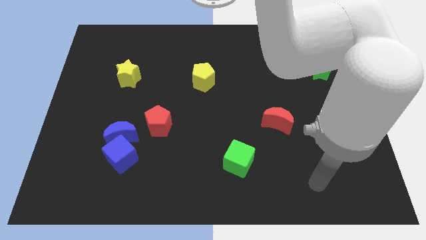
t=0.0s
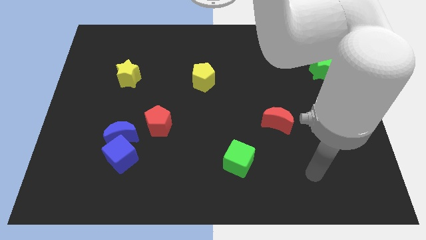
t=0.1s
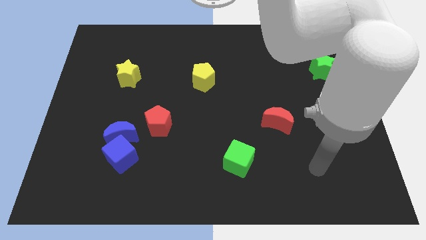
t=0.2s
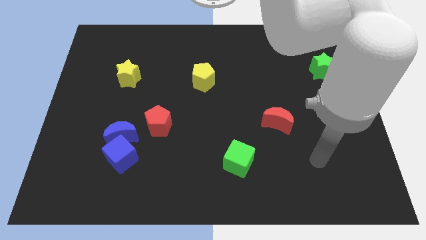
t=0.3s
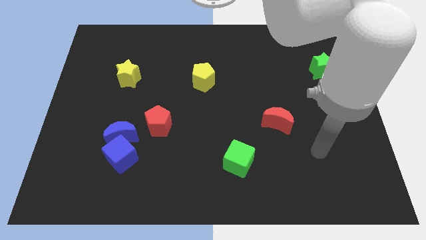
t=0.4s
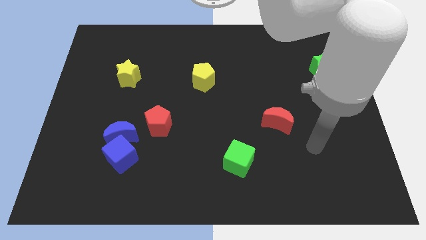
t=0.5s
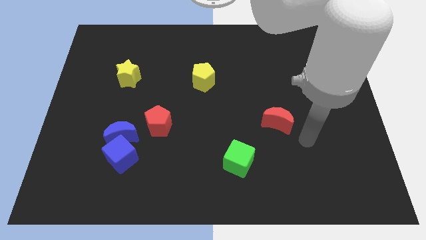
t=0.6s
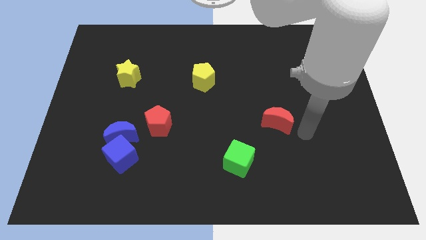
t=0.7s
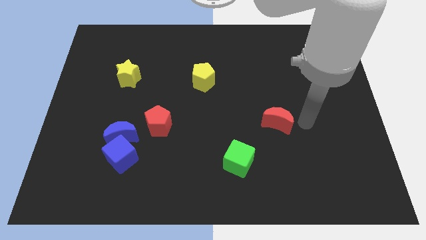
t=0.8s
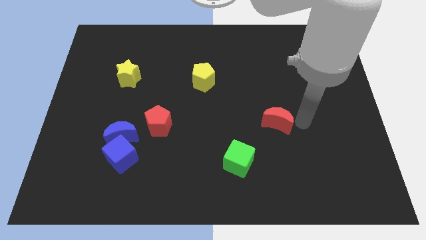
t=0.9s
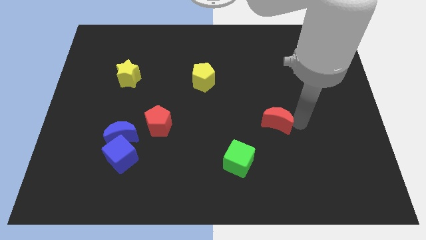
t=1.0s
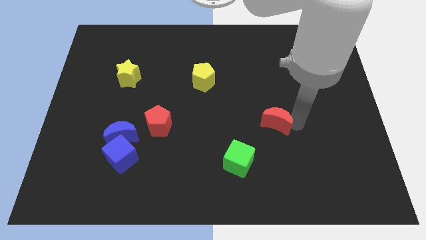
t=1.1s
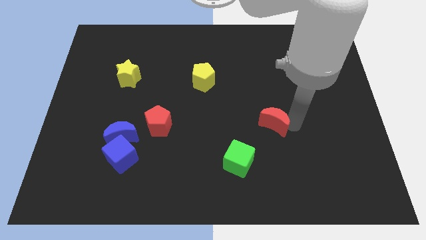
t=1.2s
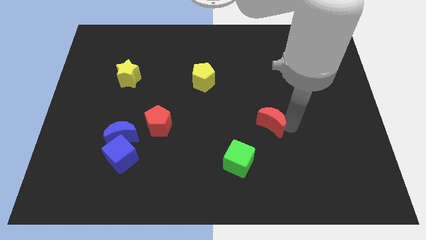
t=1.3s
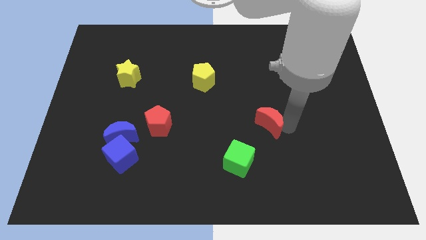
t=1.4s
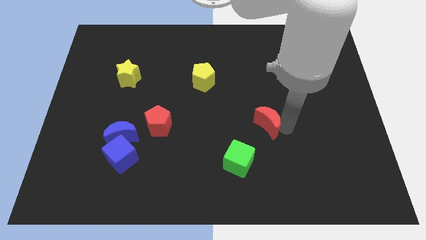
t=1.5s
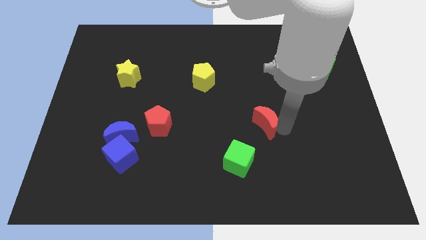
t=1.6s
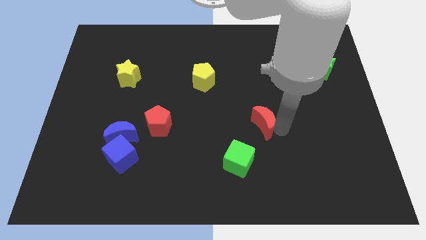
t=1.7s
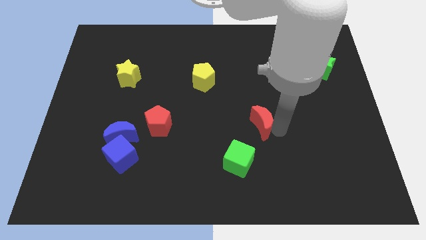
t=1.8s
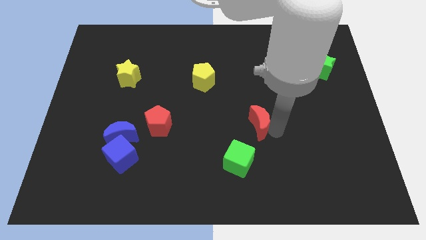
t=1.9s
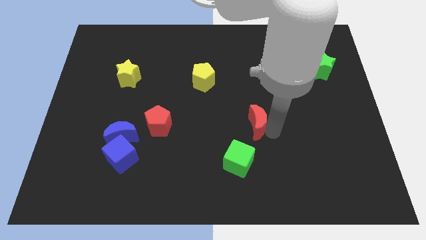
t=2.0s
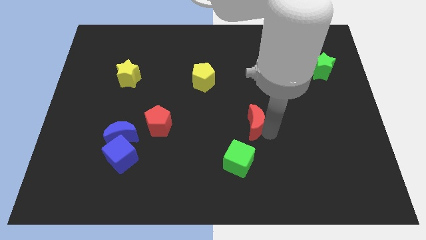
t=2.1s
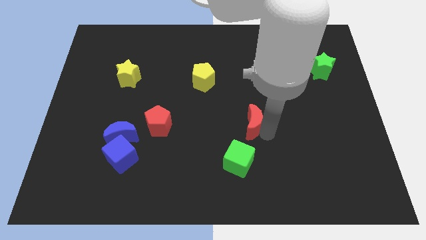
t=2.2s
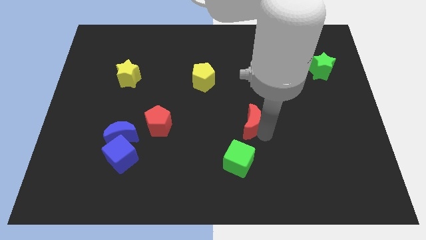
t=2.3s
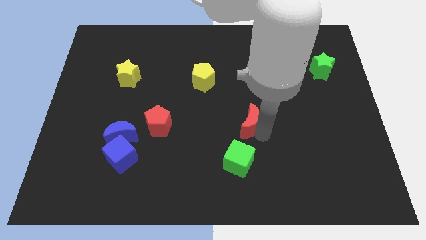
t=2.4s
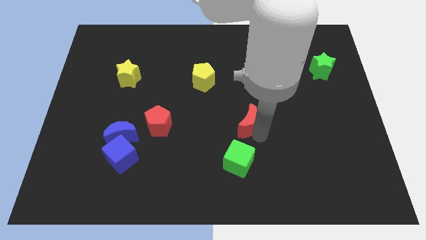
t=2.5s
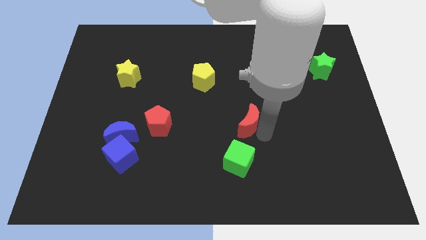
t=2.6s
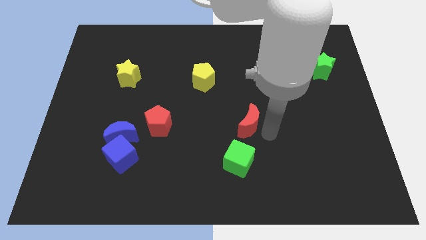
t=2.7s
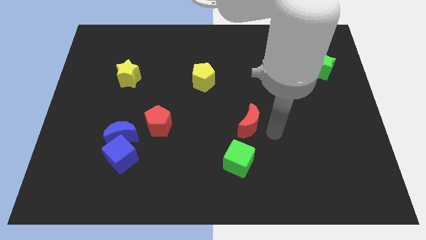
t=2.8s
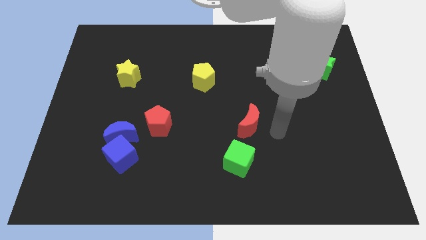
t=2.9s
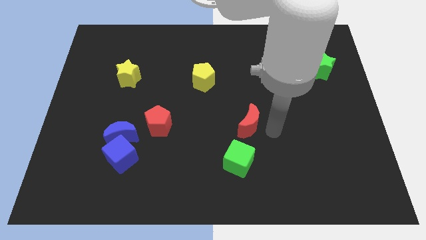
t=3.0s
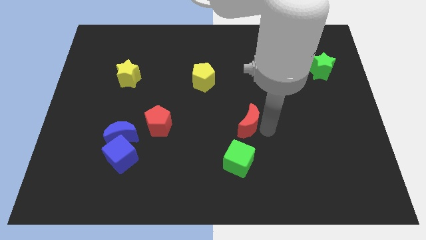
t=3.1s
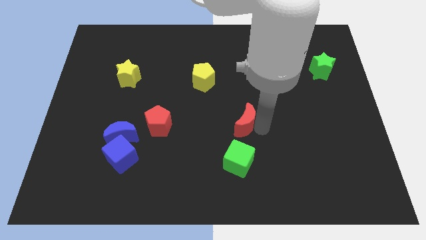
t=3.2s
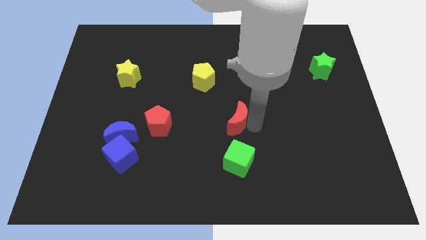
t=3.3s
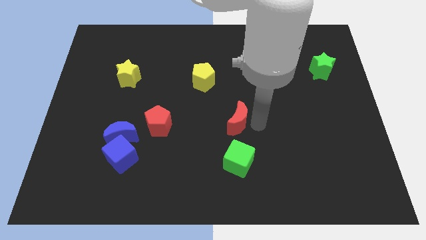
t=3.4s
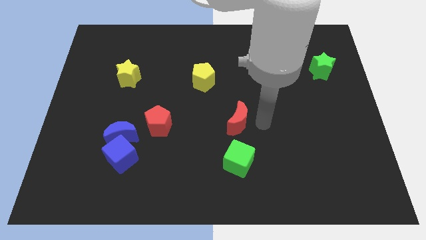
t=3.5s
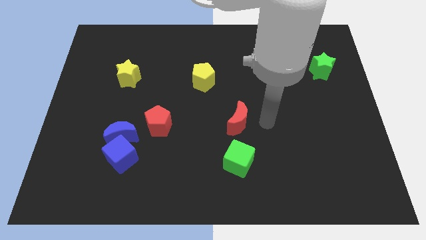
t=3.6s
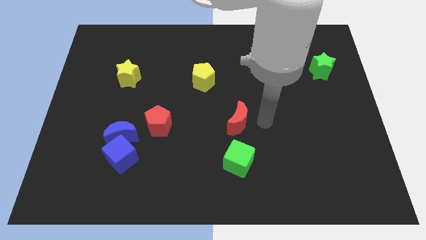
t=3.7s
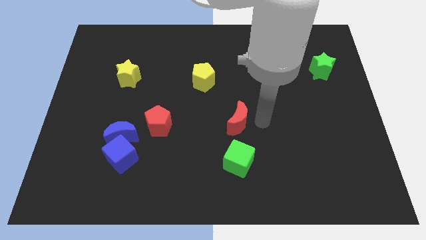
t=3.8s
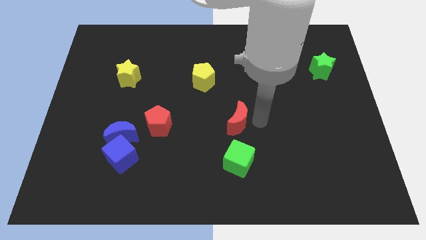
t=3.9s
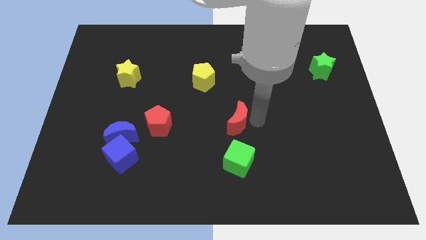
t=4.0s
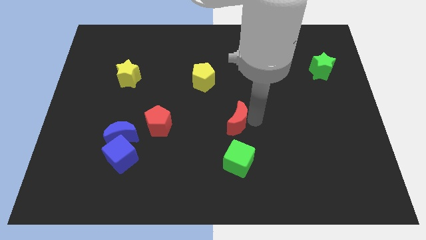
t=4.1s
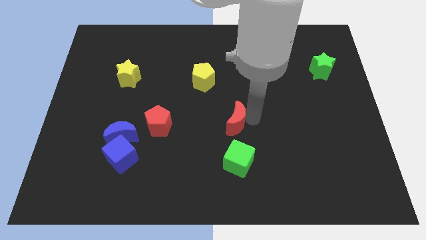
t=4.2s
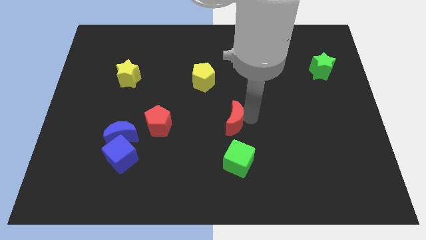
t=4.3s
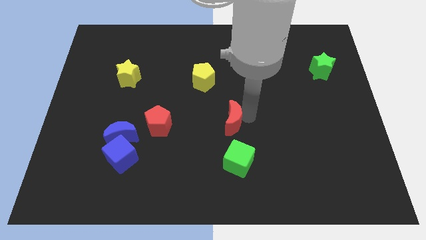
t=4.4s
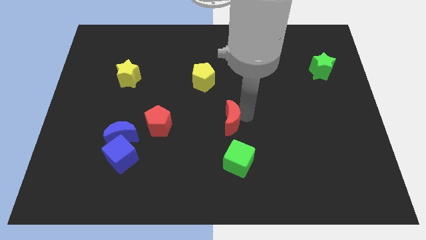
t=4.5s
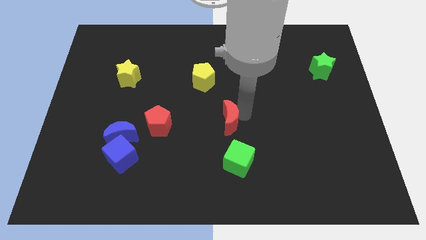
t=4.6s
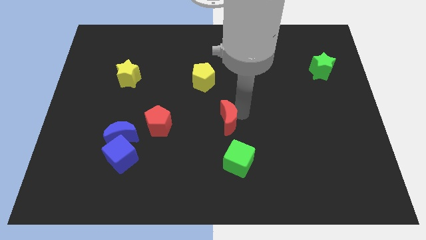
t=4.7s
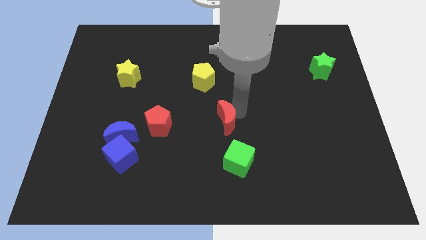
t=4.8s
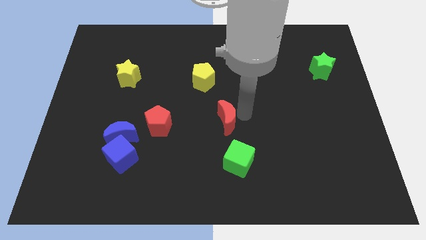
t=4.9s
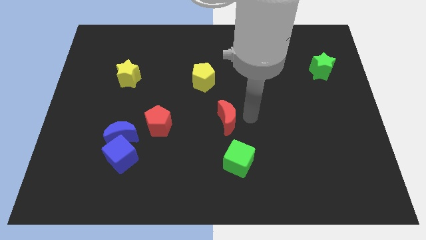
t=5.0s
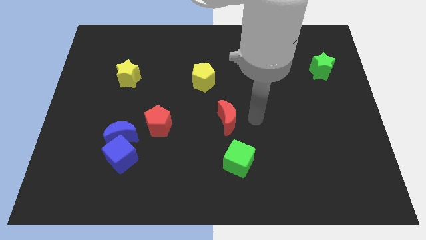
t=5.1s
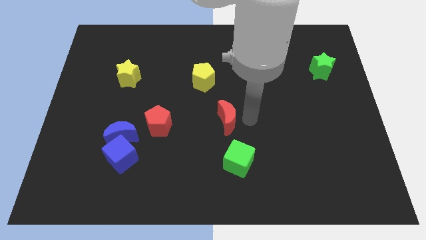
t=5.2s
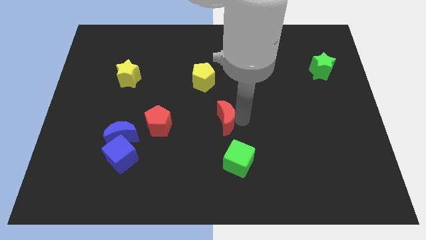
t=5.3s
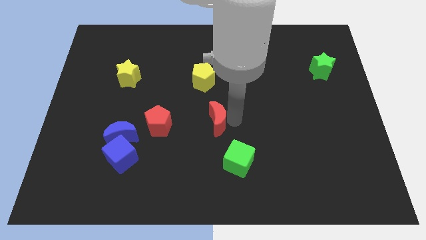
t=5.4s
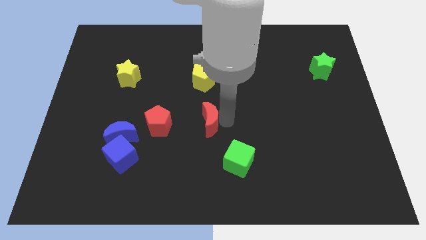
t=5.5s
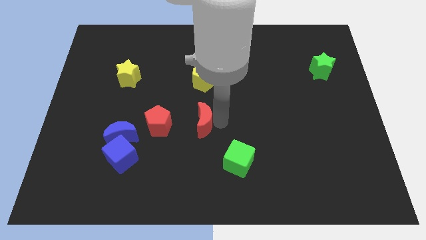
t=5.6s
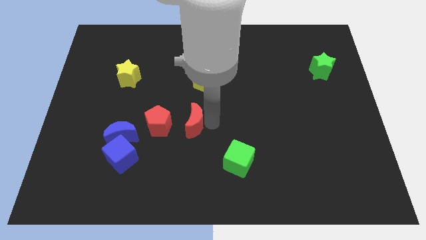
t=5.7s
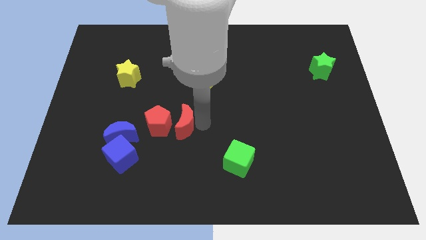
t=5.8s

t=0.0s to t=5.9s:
push the red moon to the red pentagon

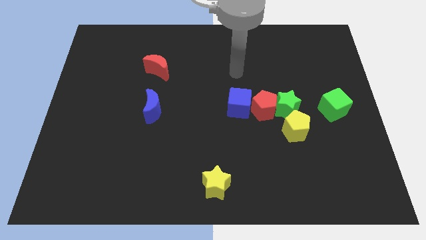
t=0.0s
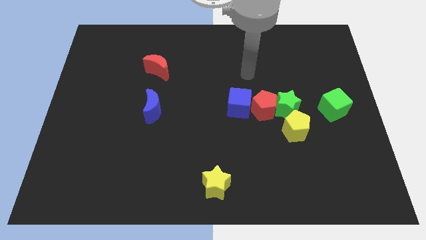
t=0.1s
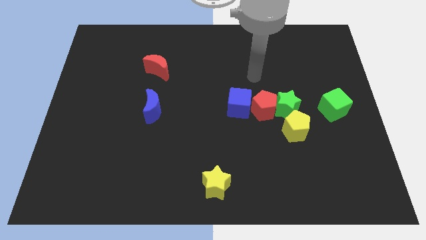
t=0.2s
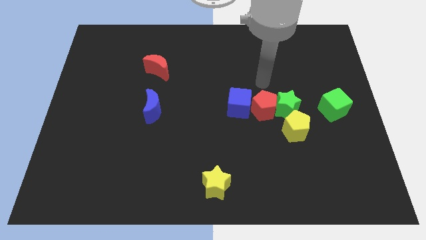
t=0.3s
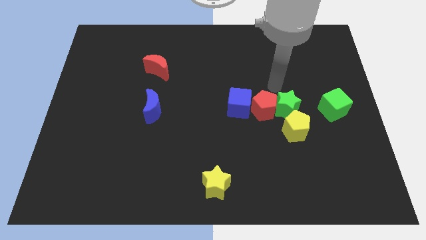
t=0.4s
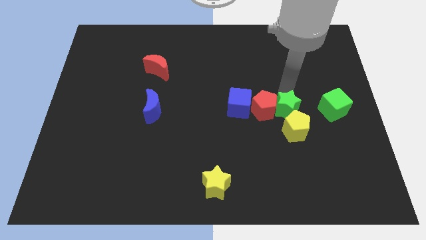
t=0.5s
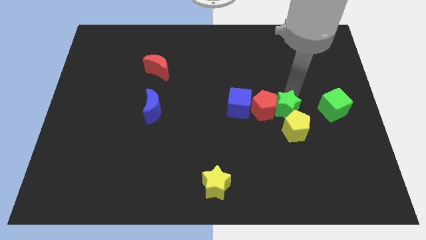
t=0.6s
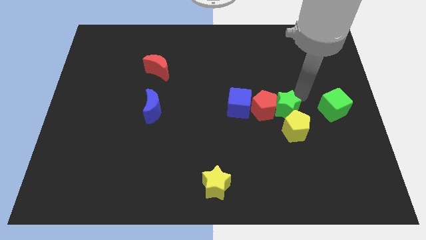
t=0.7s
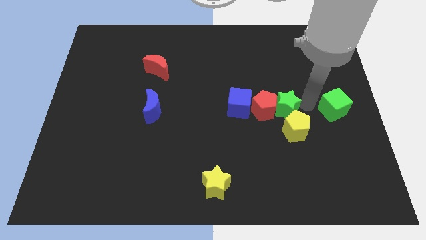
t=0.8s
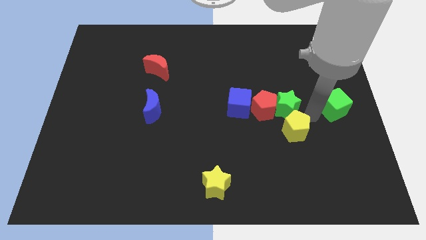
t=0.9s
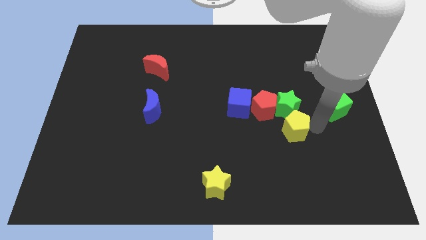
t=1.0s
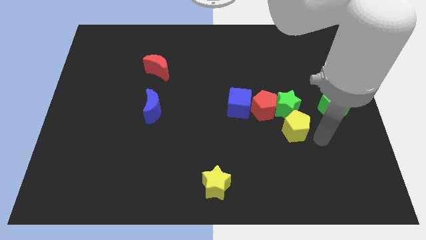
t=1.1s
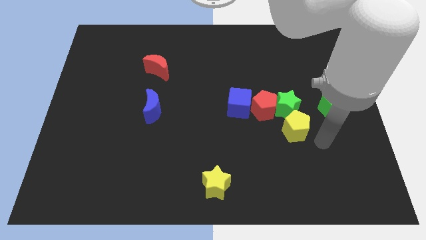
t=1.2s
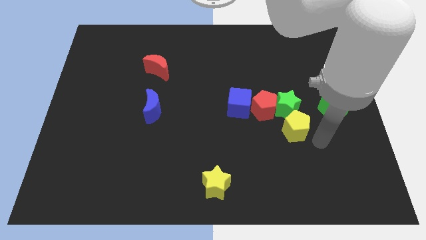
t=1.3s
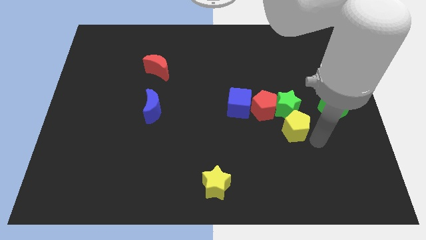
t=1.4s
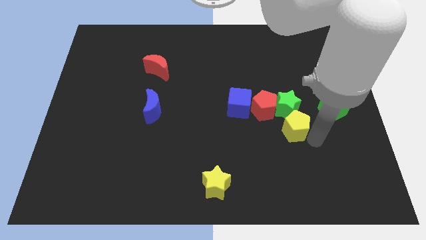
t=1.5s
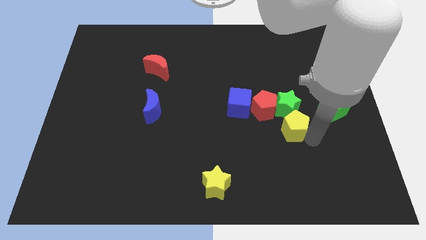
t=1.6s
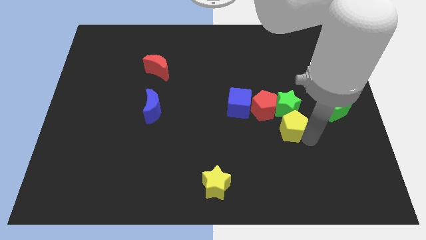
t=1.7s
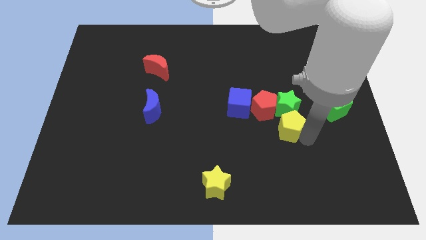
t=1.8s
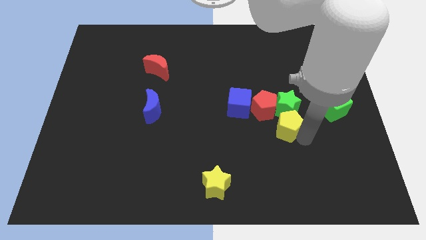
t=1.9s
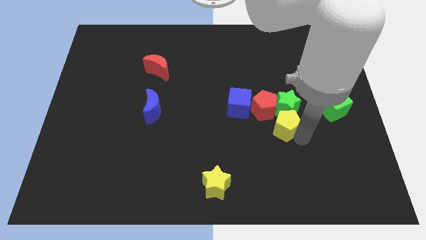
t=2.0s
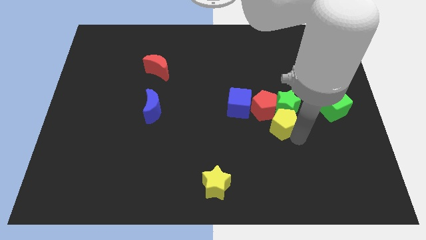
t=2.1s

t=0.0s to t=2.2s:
slide the yellow pentagon to the red pentagon
